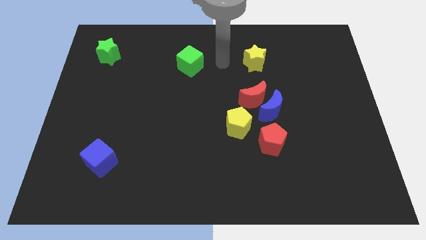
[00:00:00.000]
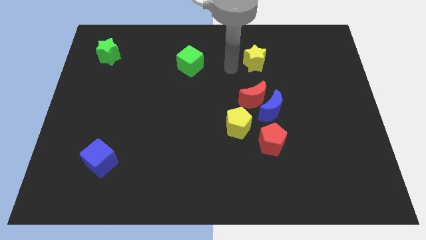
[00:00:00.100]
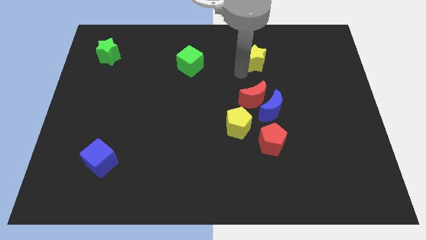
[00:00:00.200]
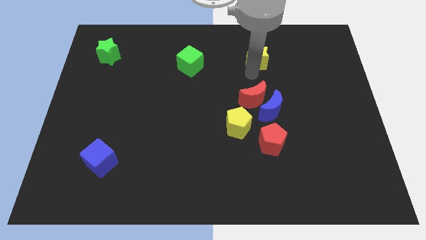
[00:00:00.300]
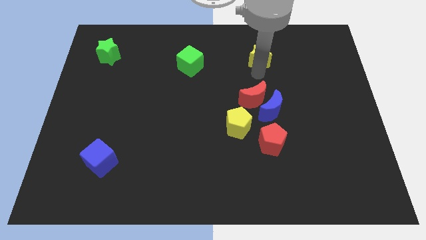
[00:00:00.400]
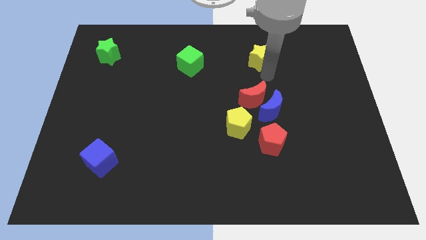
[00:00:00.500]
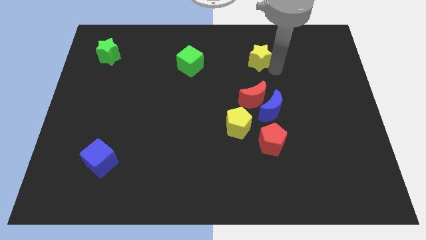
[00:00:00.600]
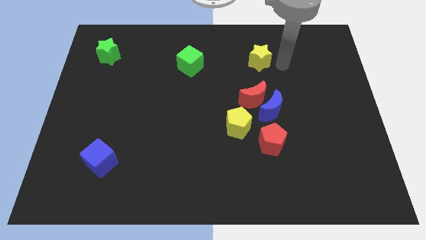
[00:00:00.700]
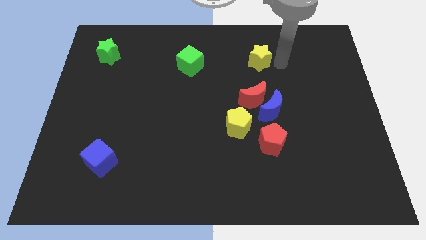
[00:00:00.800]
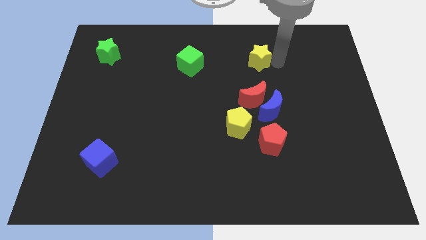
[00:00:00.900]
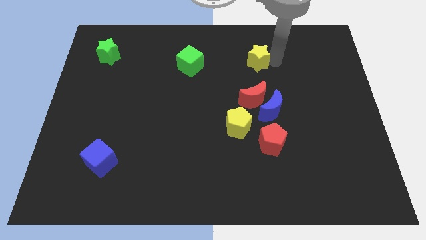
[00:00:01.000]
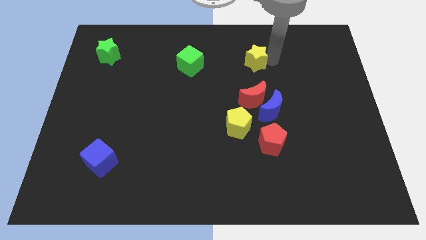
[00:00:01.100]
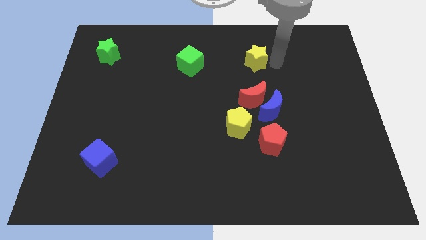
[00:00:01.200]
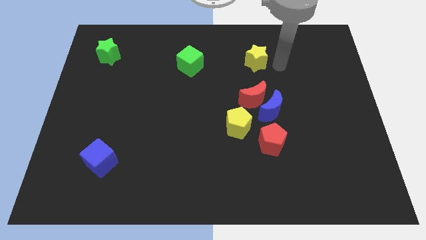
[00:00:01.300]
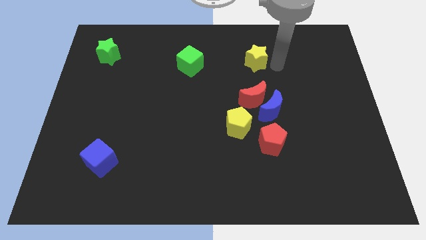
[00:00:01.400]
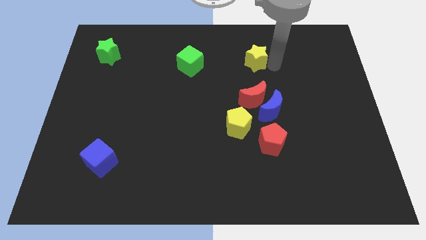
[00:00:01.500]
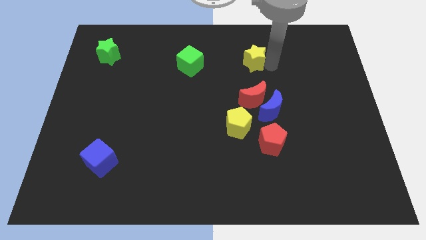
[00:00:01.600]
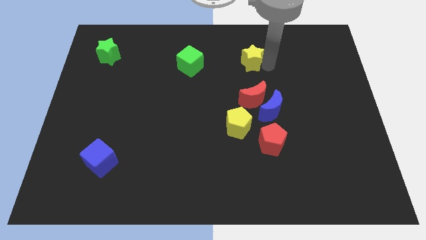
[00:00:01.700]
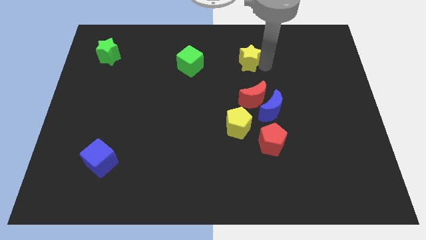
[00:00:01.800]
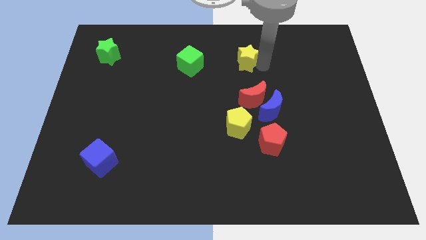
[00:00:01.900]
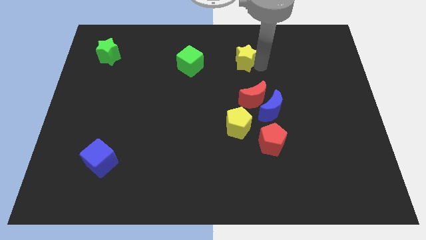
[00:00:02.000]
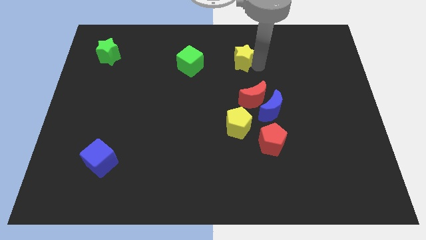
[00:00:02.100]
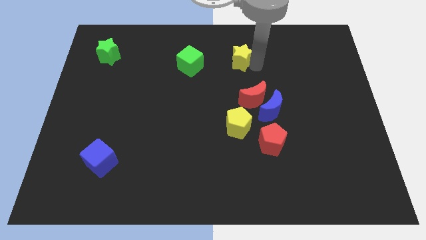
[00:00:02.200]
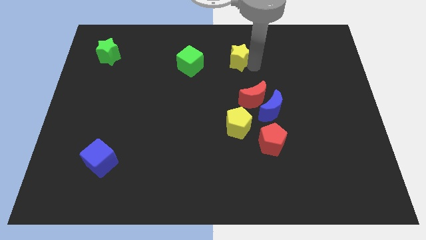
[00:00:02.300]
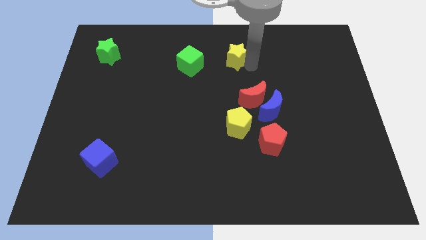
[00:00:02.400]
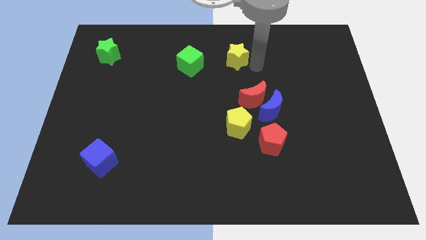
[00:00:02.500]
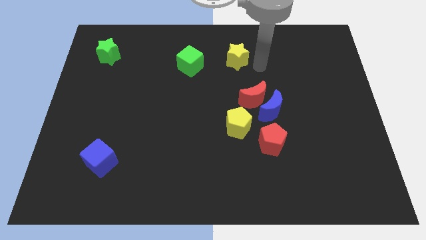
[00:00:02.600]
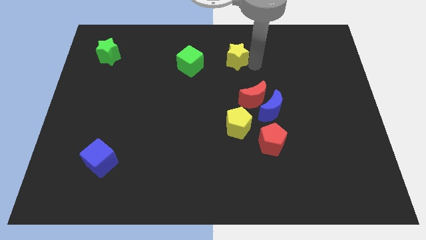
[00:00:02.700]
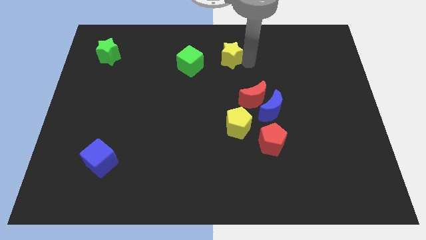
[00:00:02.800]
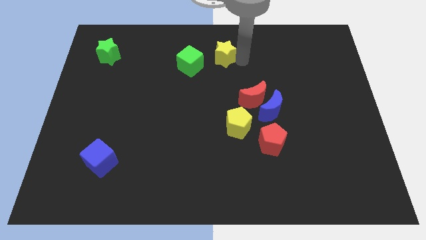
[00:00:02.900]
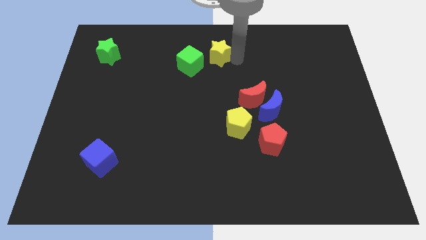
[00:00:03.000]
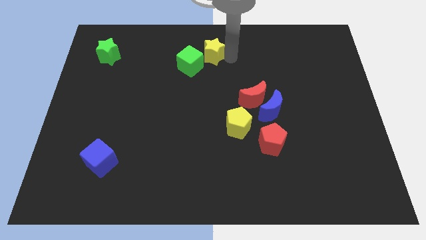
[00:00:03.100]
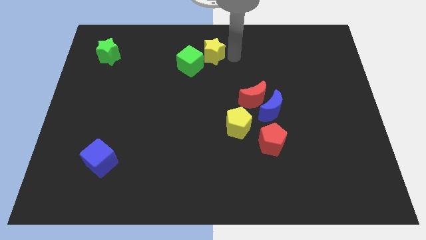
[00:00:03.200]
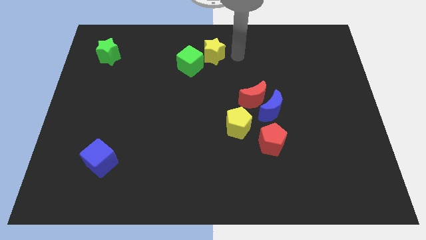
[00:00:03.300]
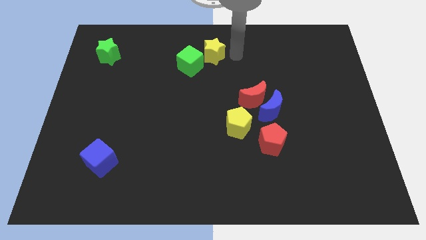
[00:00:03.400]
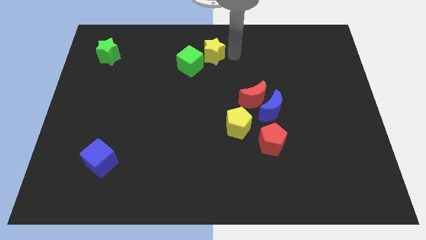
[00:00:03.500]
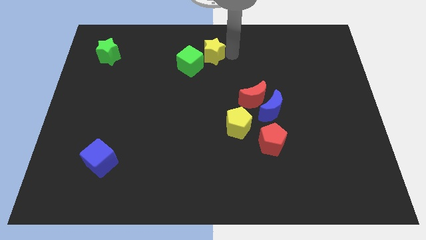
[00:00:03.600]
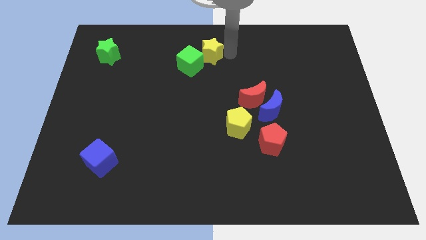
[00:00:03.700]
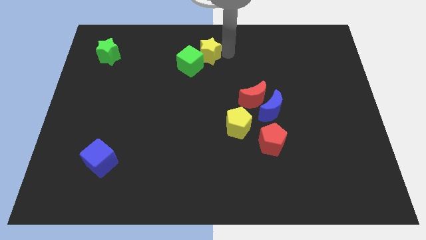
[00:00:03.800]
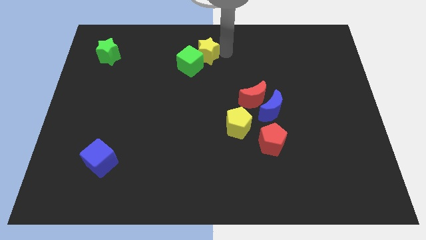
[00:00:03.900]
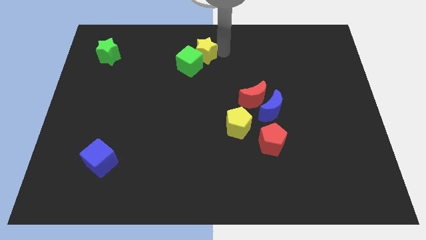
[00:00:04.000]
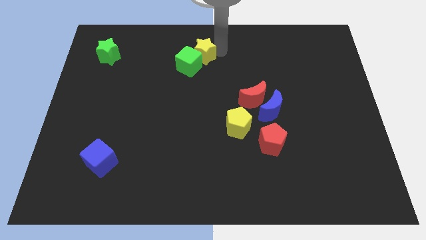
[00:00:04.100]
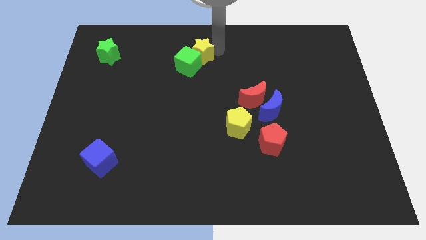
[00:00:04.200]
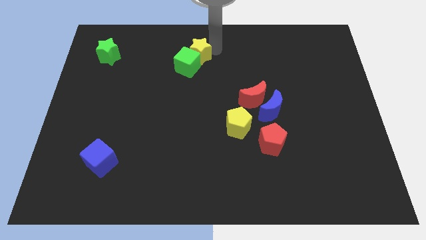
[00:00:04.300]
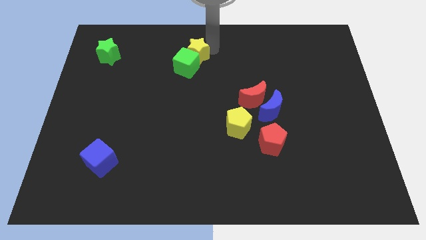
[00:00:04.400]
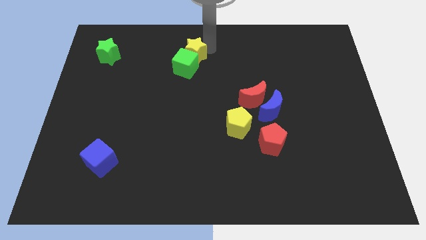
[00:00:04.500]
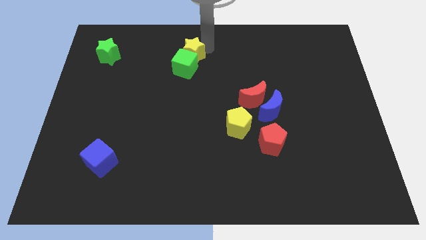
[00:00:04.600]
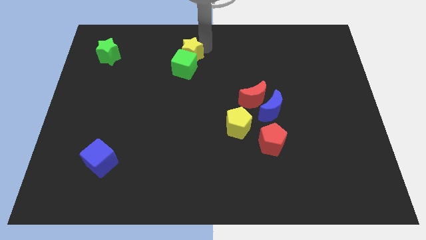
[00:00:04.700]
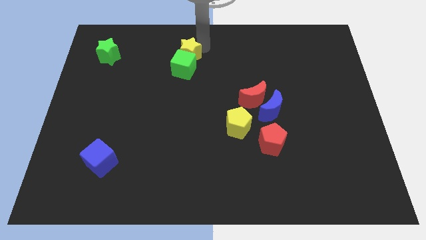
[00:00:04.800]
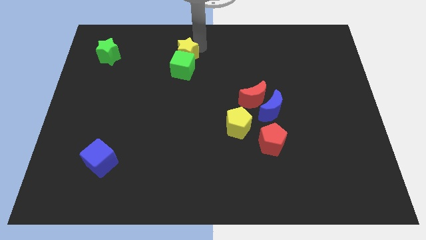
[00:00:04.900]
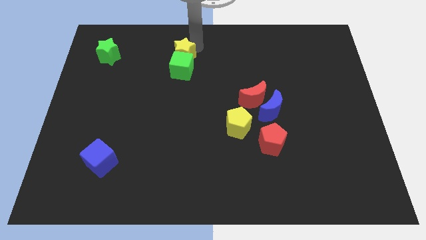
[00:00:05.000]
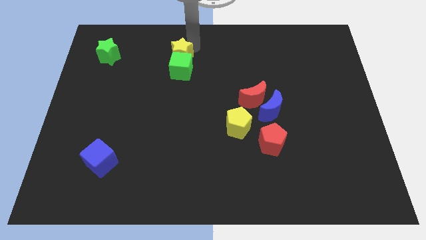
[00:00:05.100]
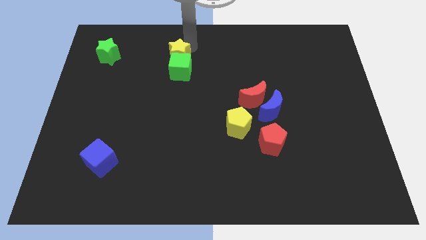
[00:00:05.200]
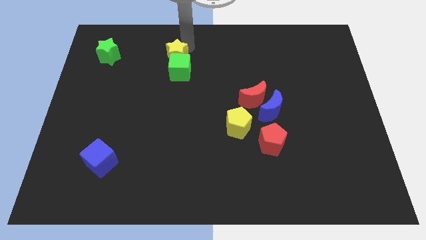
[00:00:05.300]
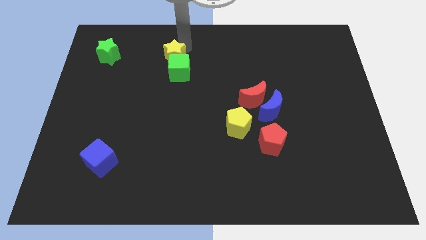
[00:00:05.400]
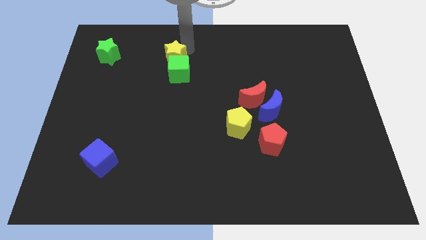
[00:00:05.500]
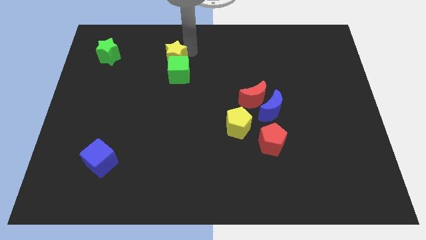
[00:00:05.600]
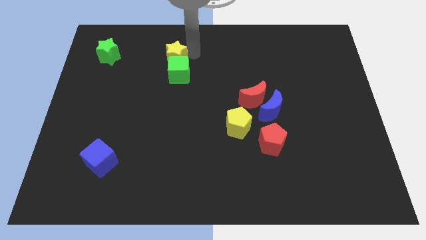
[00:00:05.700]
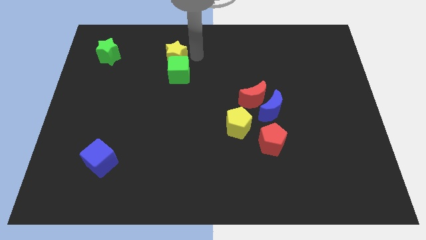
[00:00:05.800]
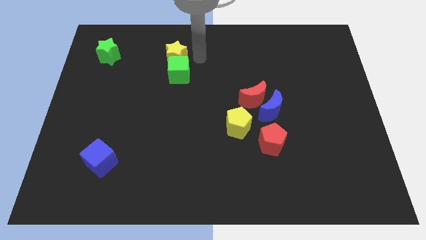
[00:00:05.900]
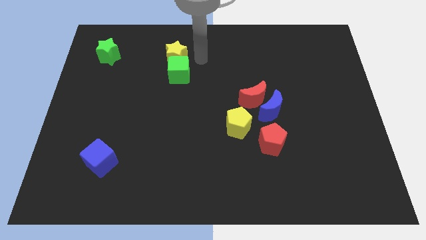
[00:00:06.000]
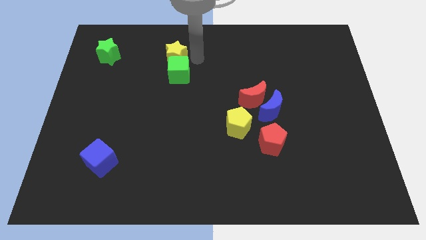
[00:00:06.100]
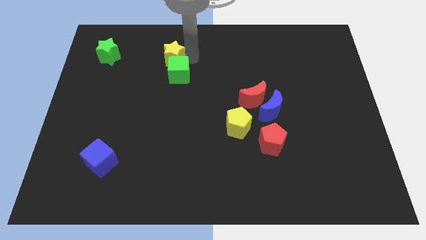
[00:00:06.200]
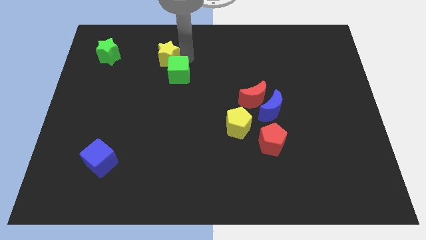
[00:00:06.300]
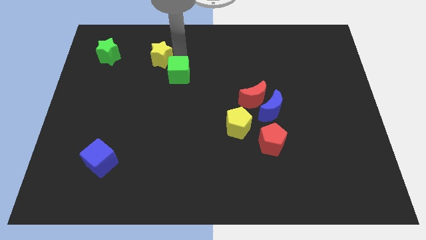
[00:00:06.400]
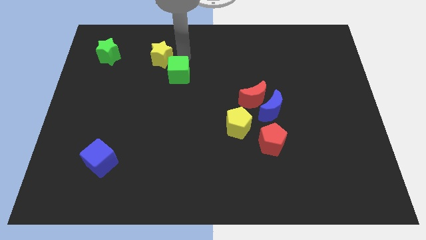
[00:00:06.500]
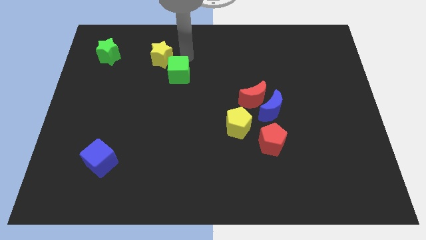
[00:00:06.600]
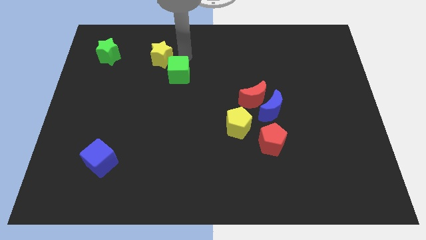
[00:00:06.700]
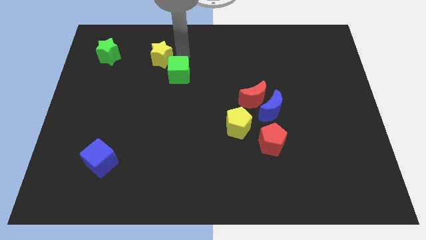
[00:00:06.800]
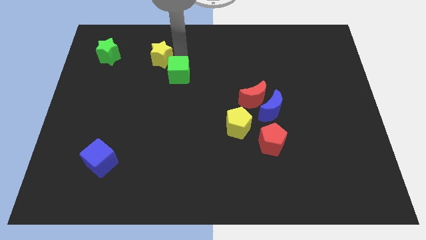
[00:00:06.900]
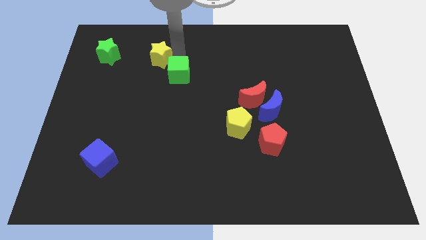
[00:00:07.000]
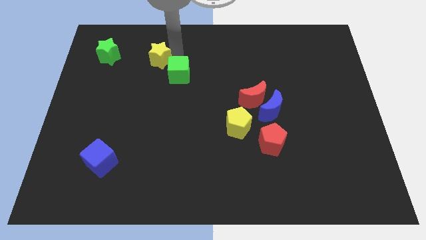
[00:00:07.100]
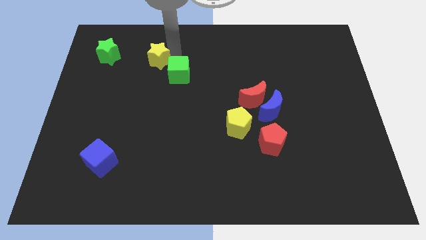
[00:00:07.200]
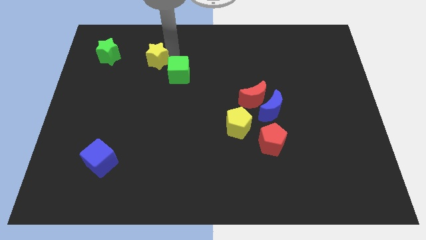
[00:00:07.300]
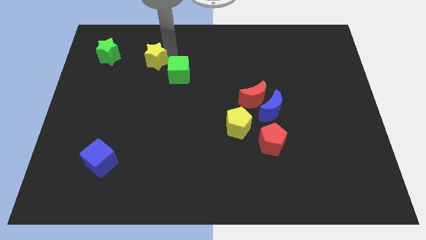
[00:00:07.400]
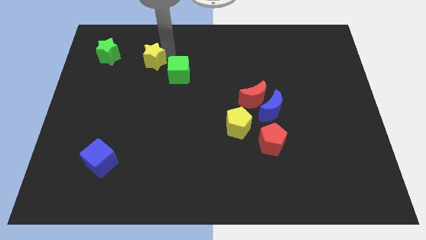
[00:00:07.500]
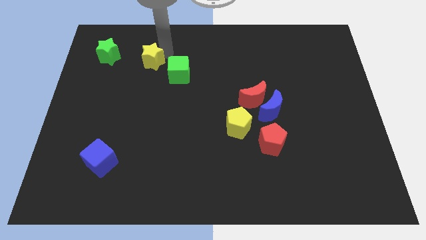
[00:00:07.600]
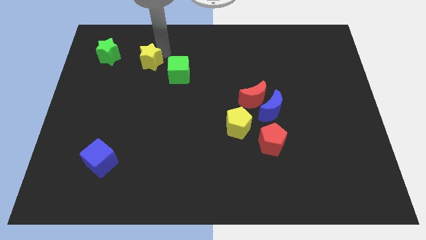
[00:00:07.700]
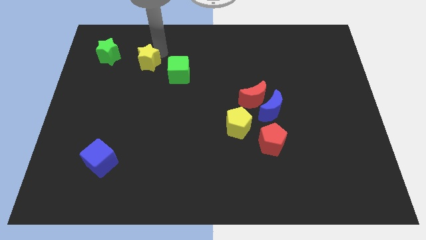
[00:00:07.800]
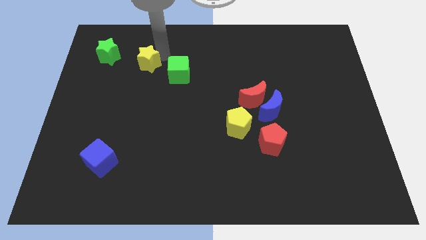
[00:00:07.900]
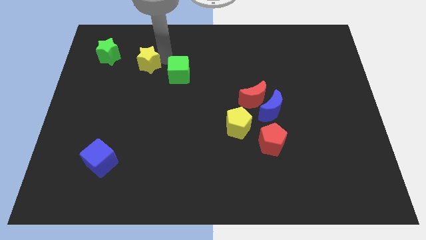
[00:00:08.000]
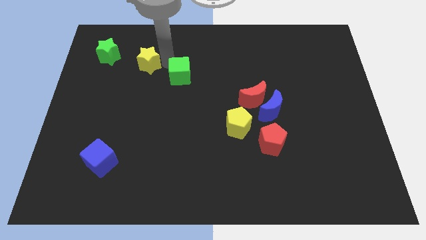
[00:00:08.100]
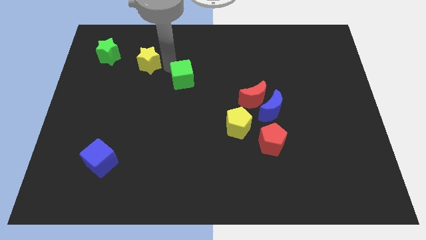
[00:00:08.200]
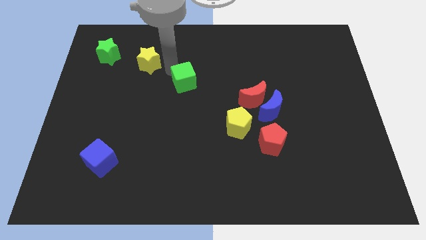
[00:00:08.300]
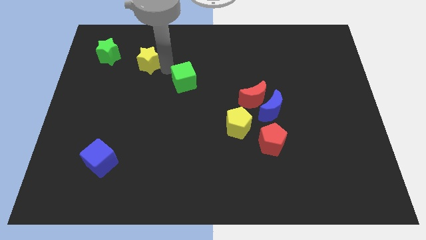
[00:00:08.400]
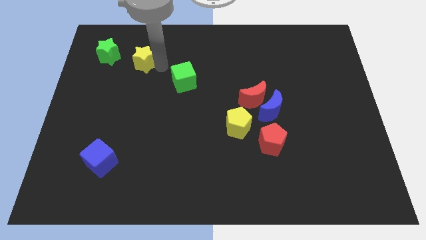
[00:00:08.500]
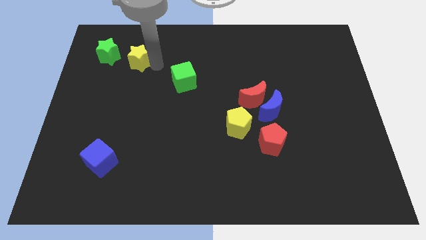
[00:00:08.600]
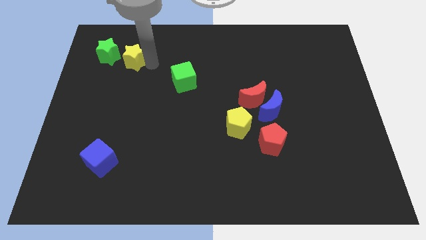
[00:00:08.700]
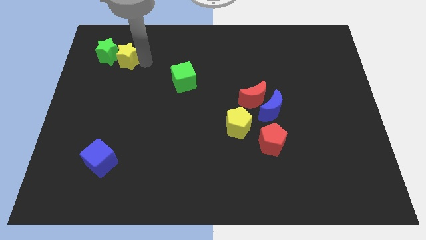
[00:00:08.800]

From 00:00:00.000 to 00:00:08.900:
push the yellow star towards the green star
